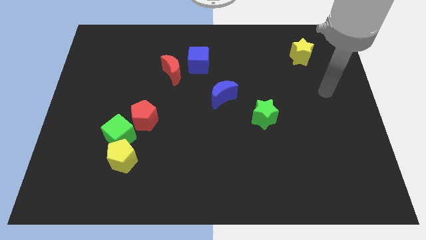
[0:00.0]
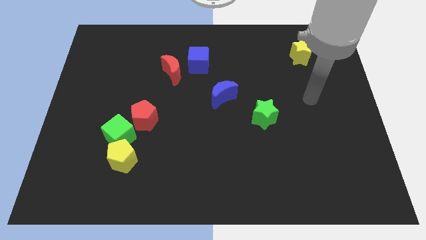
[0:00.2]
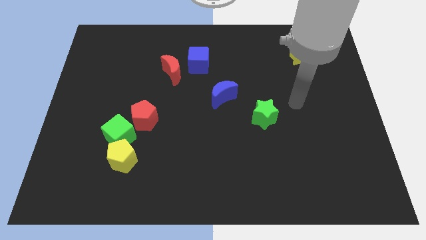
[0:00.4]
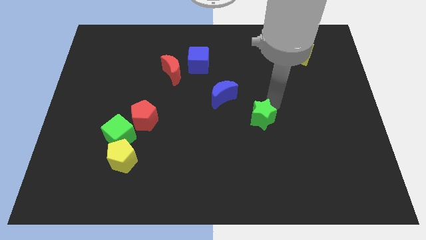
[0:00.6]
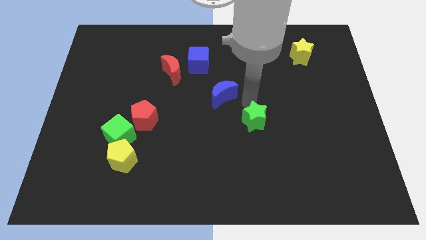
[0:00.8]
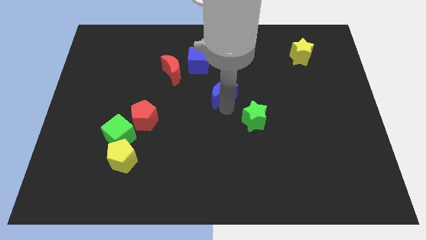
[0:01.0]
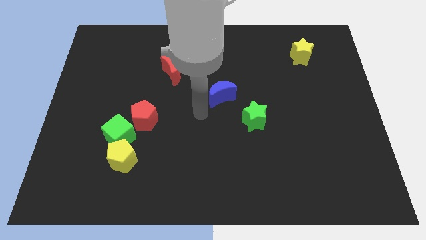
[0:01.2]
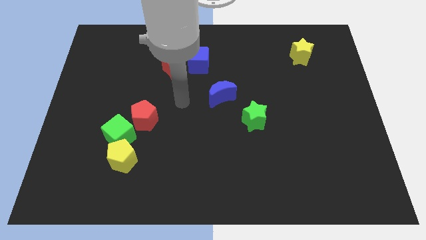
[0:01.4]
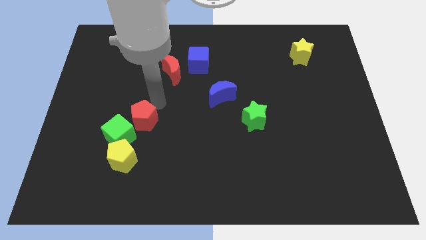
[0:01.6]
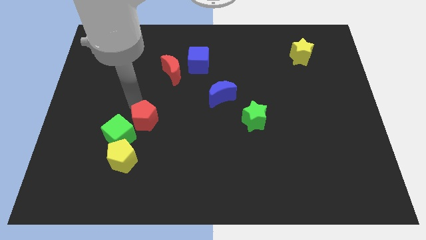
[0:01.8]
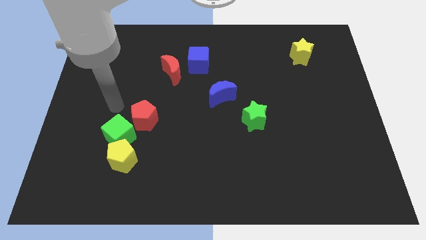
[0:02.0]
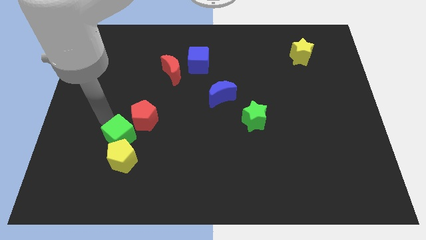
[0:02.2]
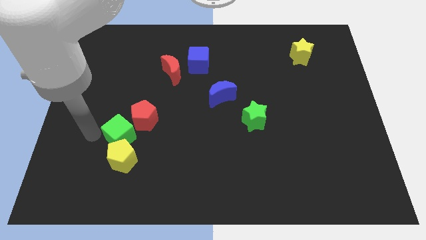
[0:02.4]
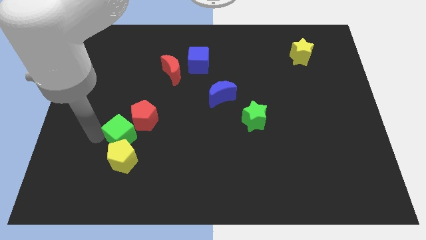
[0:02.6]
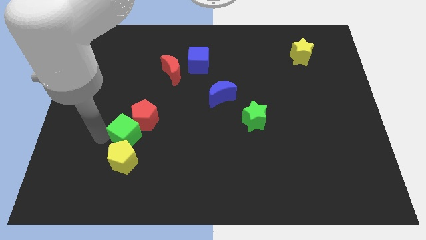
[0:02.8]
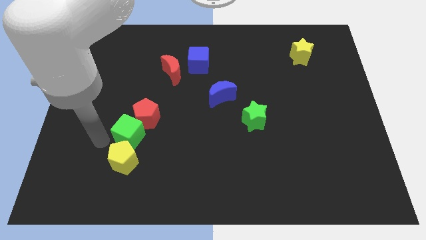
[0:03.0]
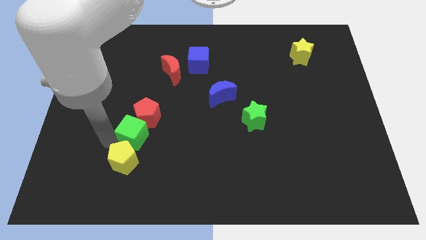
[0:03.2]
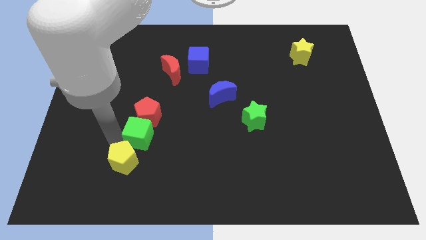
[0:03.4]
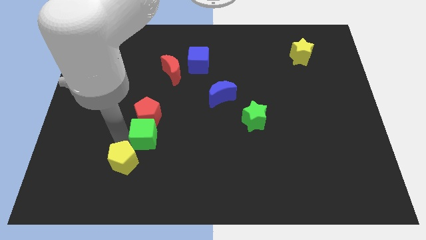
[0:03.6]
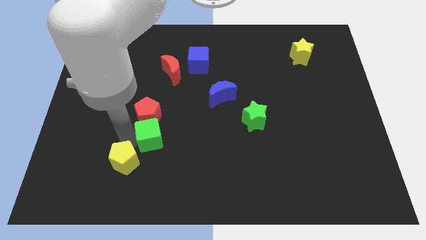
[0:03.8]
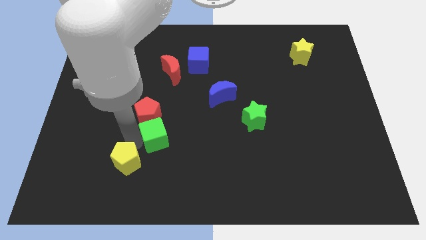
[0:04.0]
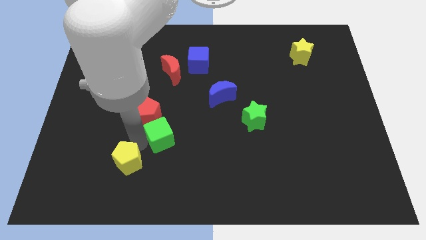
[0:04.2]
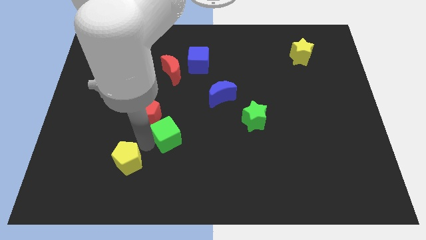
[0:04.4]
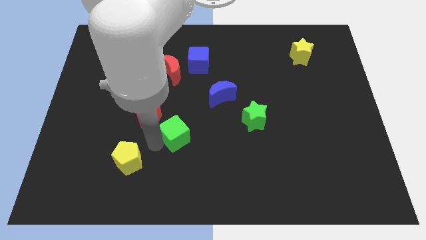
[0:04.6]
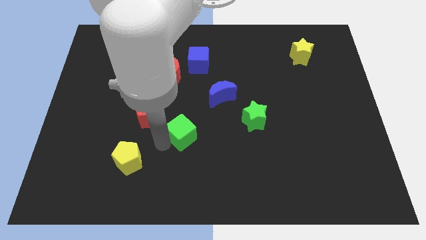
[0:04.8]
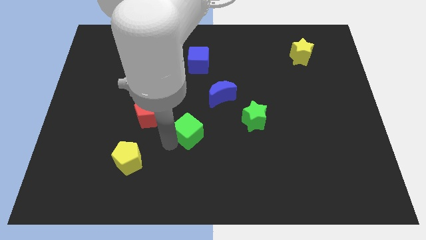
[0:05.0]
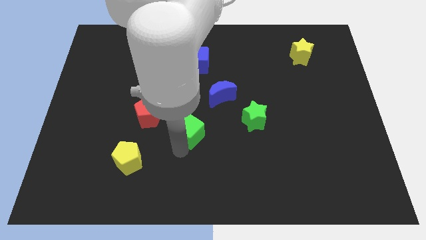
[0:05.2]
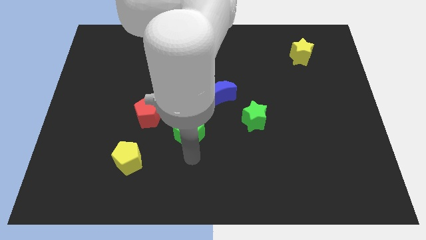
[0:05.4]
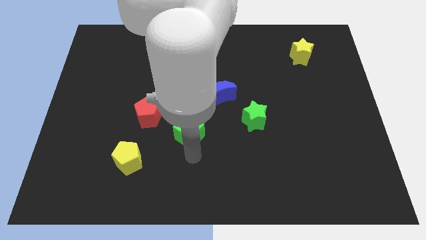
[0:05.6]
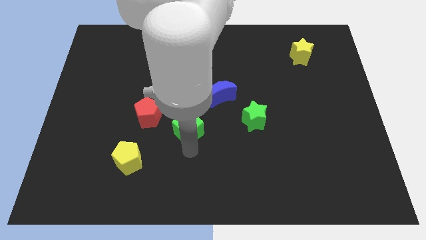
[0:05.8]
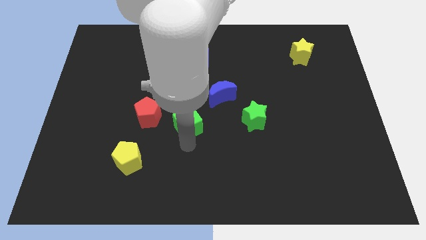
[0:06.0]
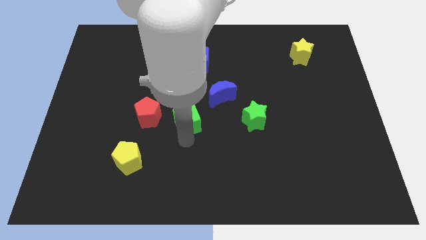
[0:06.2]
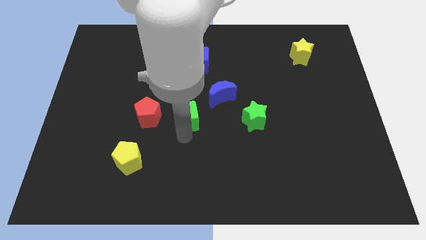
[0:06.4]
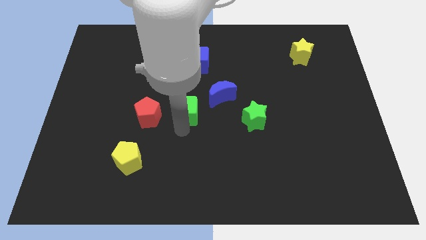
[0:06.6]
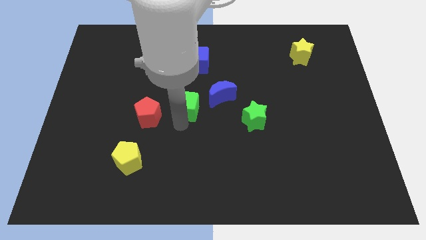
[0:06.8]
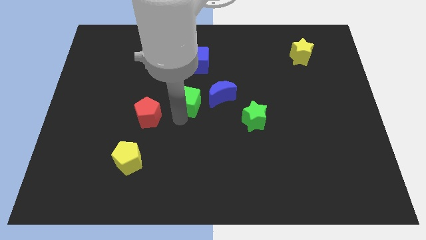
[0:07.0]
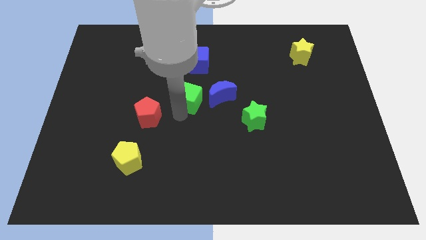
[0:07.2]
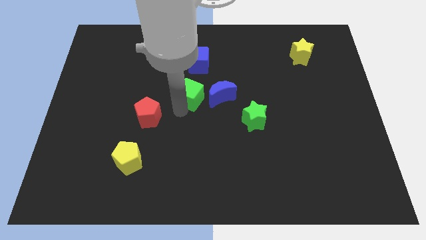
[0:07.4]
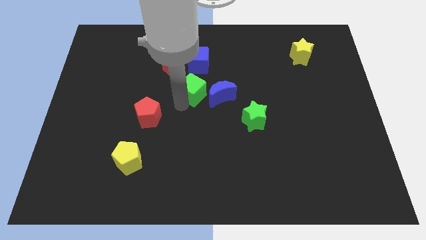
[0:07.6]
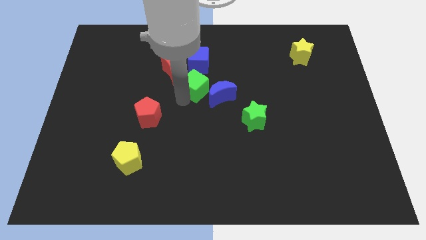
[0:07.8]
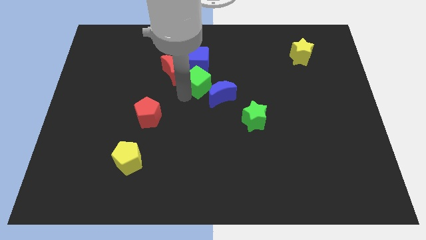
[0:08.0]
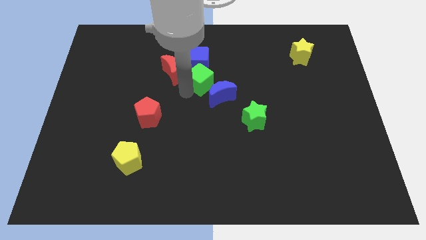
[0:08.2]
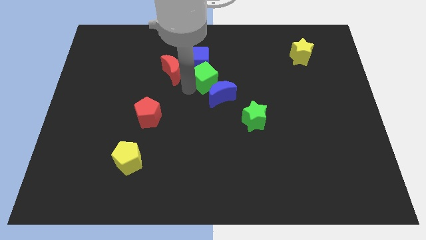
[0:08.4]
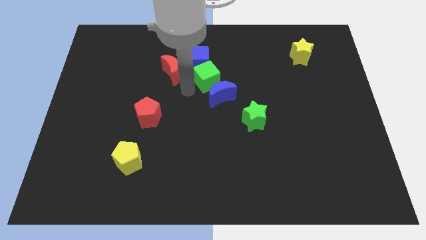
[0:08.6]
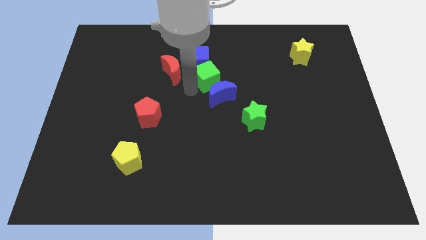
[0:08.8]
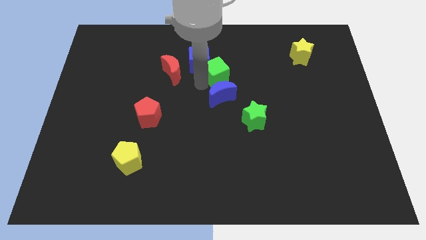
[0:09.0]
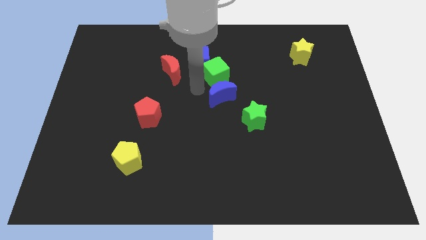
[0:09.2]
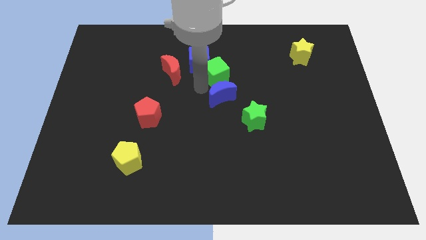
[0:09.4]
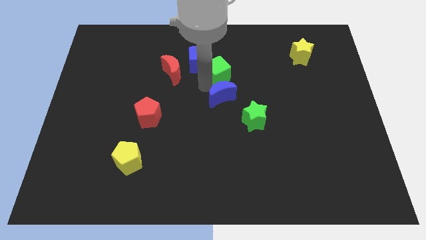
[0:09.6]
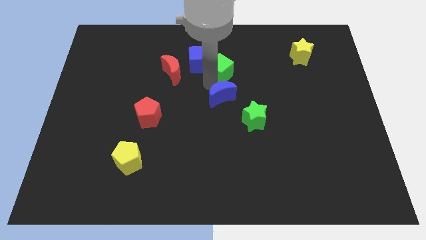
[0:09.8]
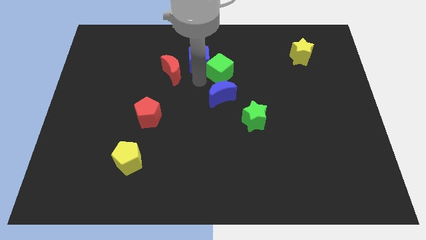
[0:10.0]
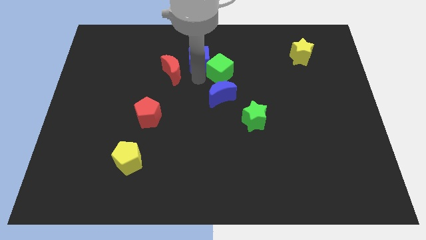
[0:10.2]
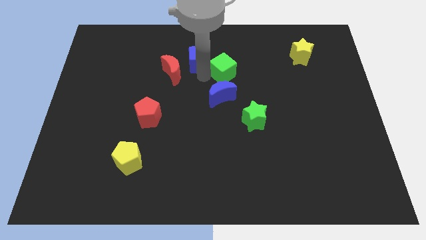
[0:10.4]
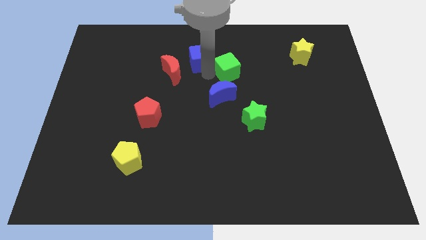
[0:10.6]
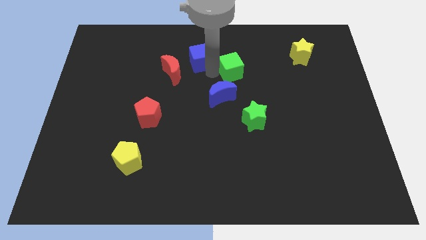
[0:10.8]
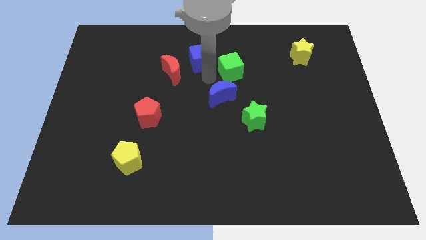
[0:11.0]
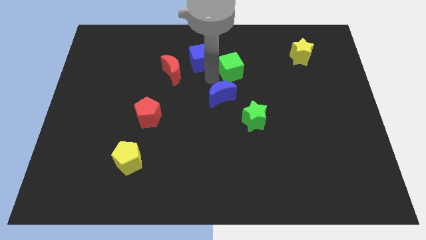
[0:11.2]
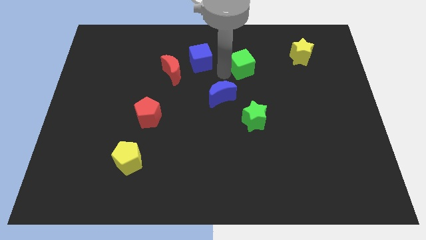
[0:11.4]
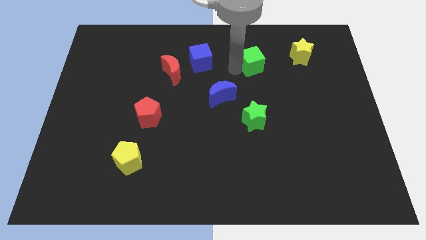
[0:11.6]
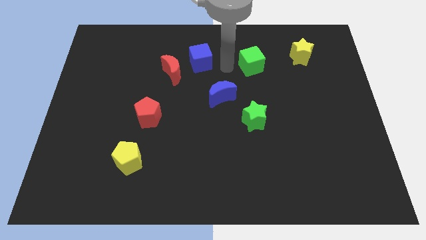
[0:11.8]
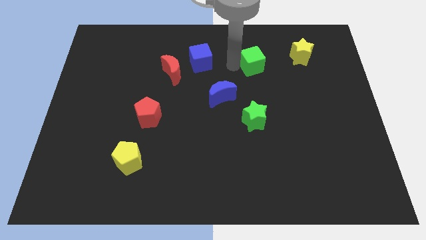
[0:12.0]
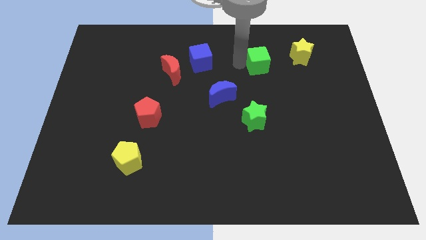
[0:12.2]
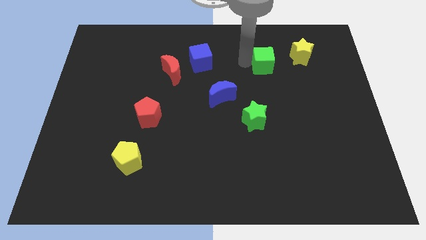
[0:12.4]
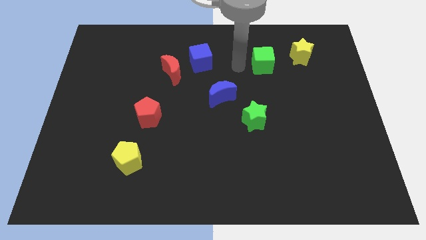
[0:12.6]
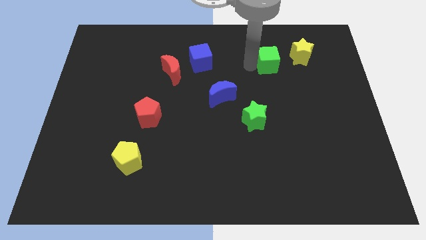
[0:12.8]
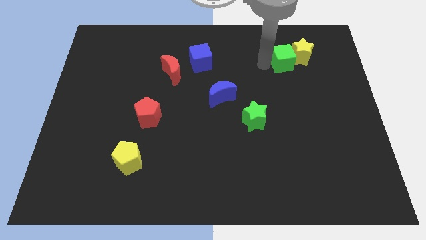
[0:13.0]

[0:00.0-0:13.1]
slide the green cube to the yellow star
